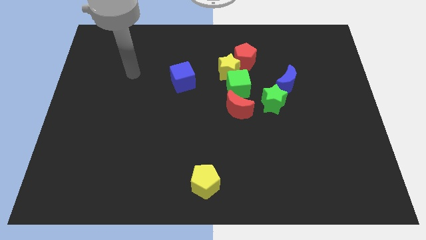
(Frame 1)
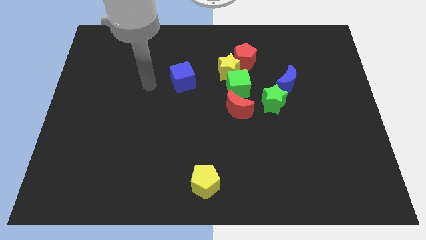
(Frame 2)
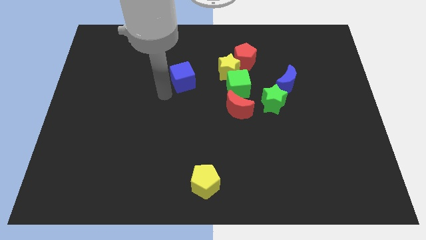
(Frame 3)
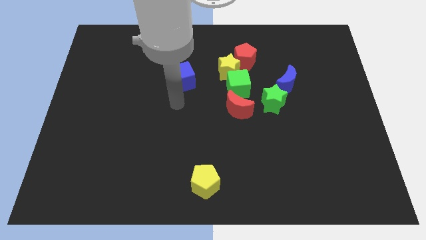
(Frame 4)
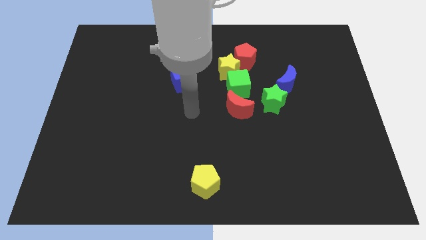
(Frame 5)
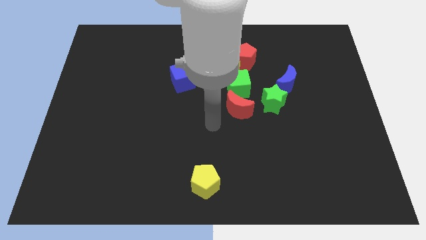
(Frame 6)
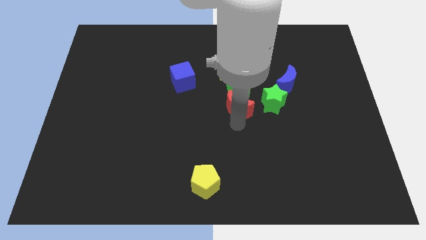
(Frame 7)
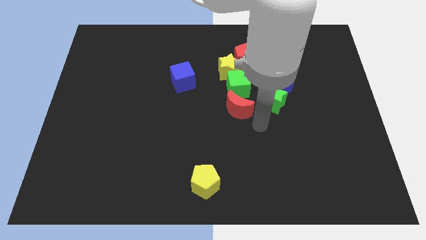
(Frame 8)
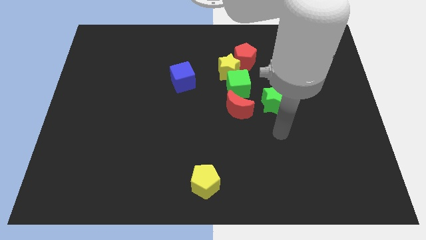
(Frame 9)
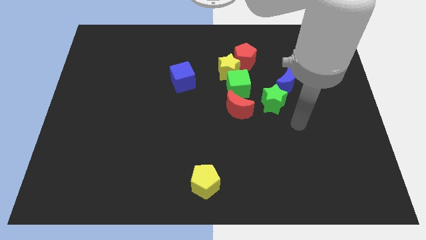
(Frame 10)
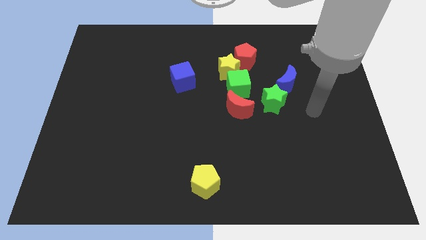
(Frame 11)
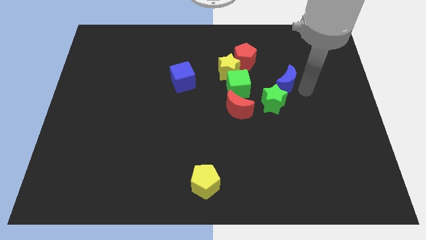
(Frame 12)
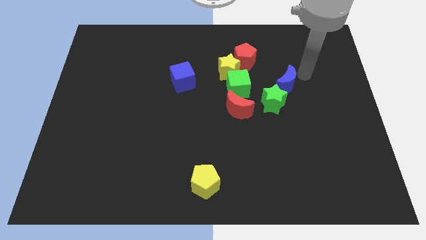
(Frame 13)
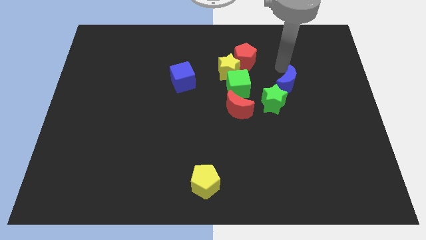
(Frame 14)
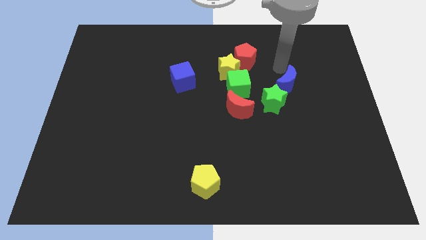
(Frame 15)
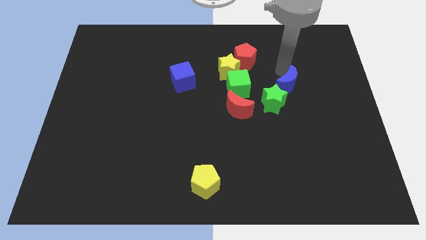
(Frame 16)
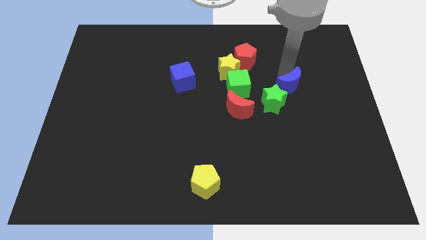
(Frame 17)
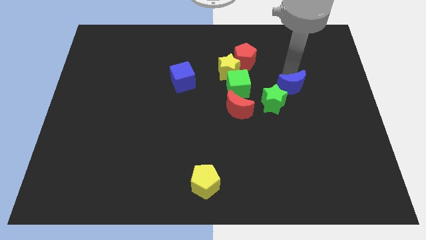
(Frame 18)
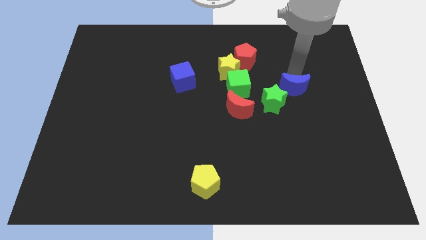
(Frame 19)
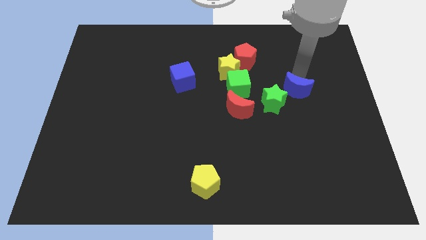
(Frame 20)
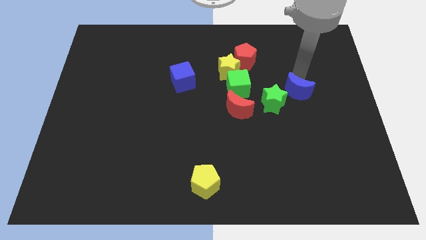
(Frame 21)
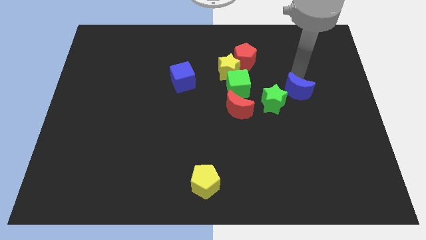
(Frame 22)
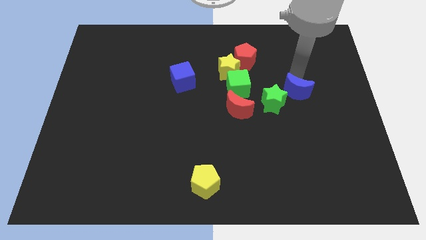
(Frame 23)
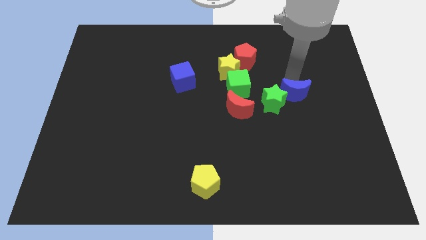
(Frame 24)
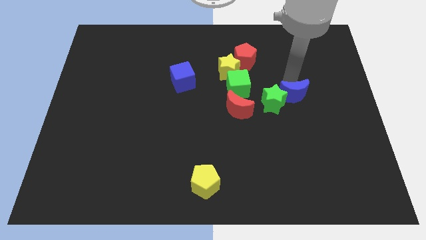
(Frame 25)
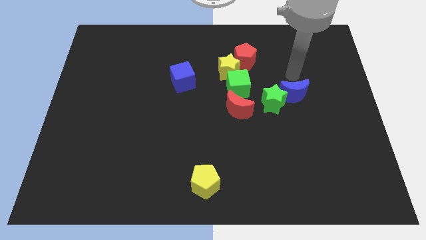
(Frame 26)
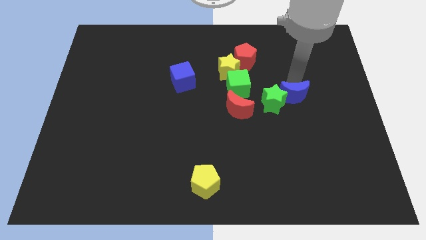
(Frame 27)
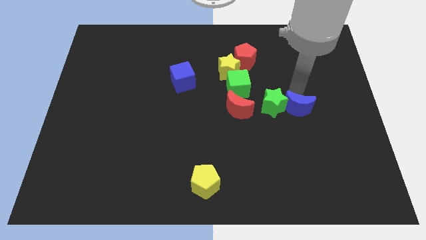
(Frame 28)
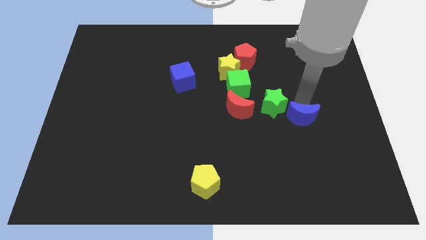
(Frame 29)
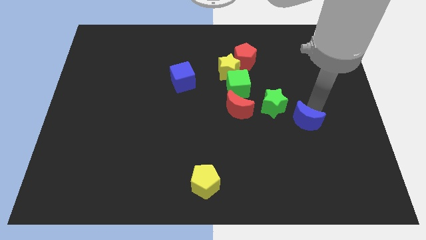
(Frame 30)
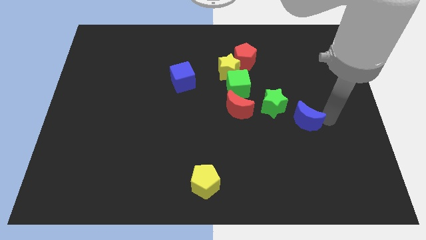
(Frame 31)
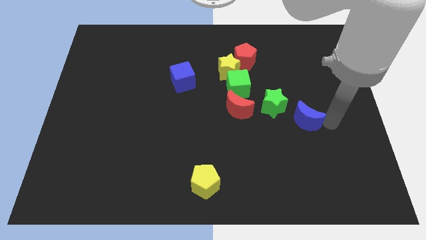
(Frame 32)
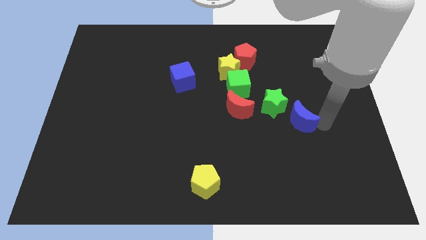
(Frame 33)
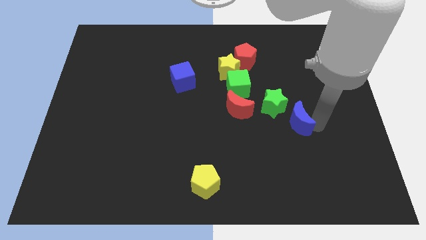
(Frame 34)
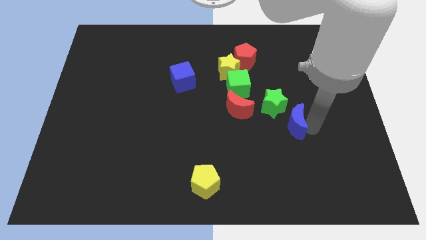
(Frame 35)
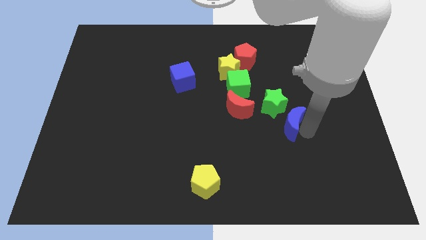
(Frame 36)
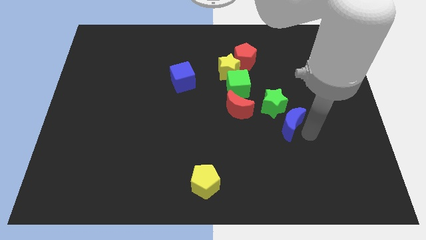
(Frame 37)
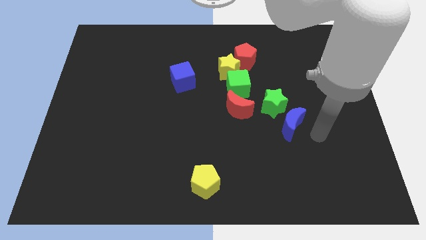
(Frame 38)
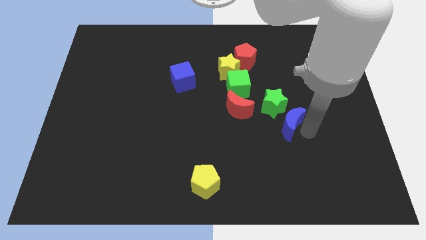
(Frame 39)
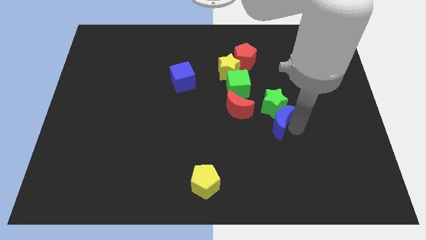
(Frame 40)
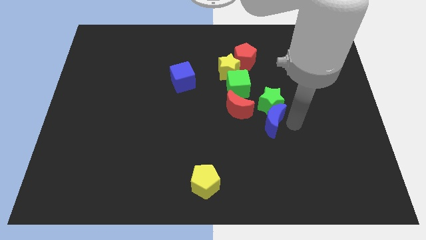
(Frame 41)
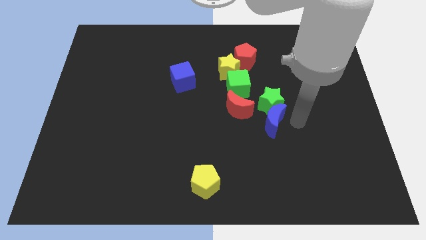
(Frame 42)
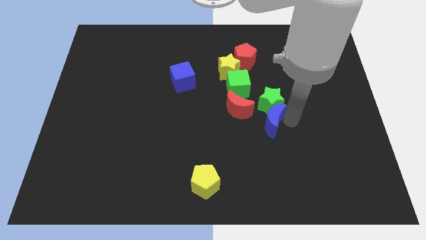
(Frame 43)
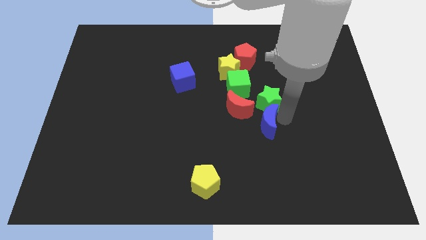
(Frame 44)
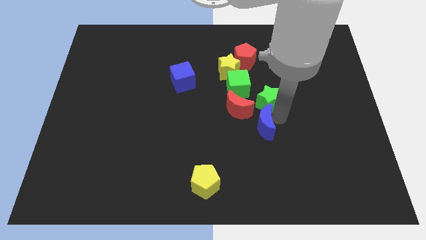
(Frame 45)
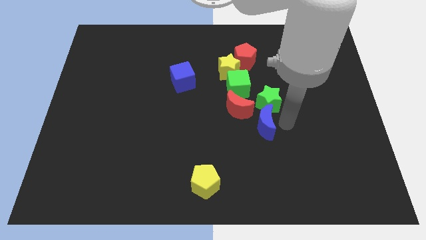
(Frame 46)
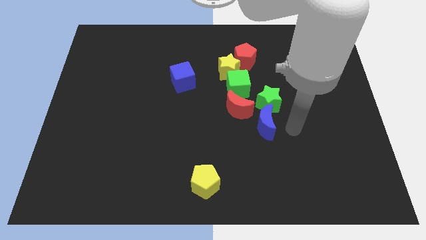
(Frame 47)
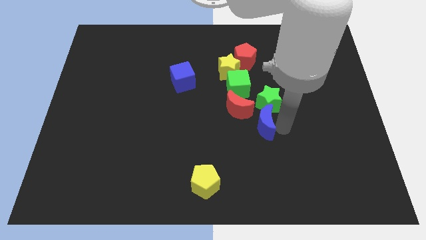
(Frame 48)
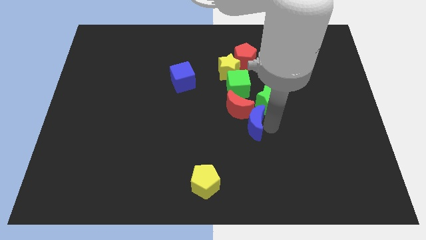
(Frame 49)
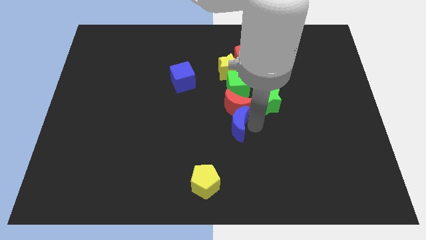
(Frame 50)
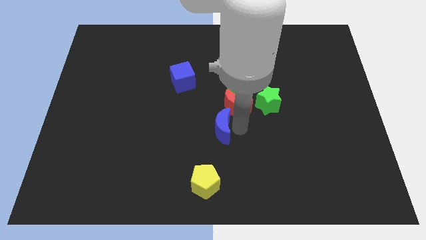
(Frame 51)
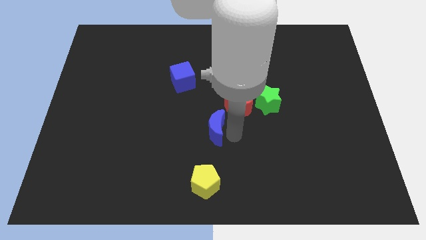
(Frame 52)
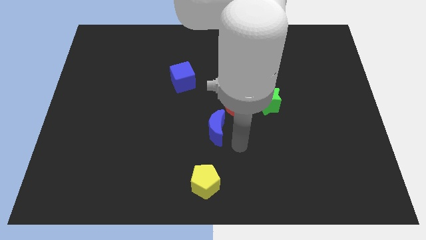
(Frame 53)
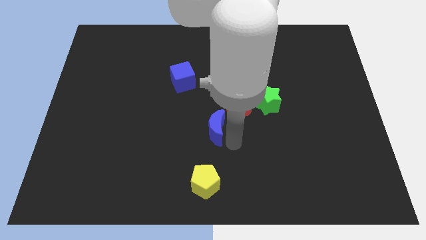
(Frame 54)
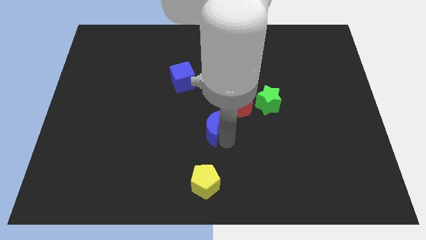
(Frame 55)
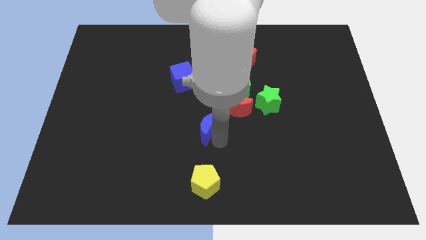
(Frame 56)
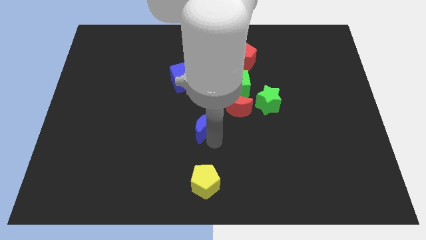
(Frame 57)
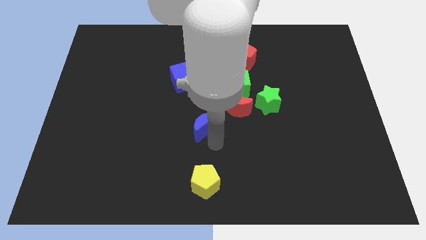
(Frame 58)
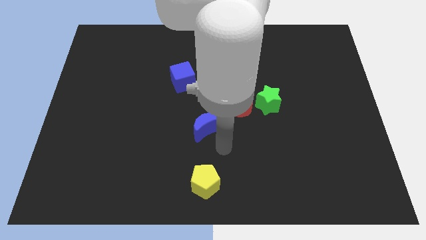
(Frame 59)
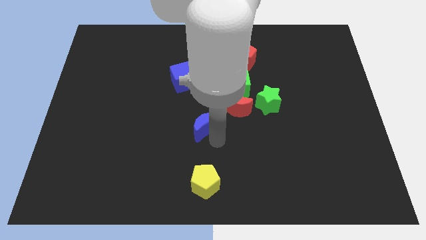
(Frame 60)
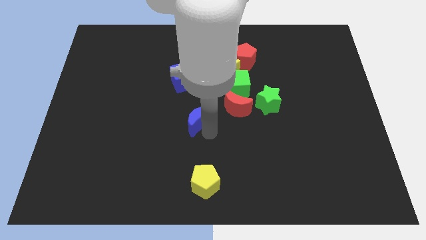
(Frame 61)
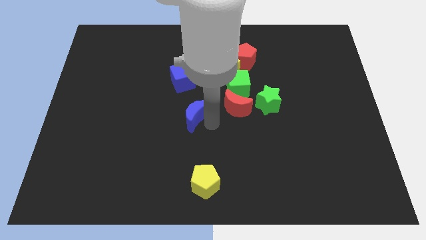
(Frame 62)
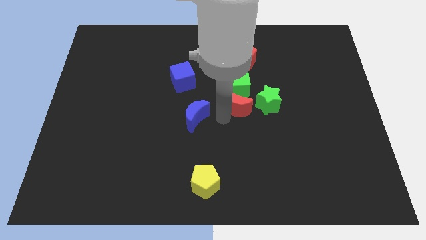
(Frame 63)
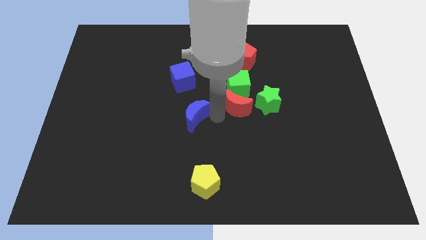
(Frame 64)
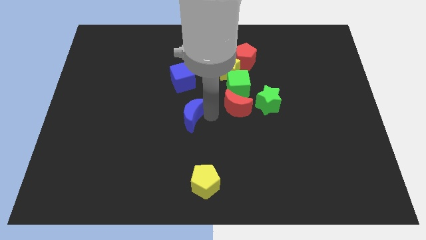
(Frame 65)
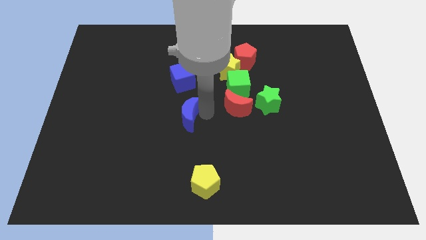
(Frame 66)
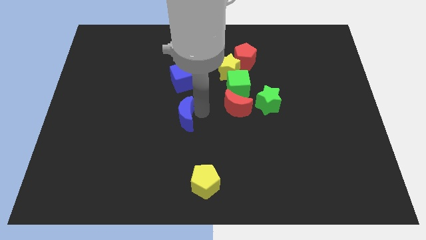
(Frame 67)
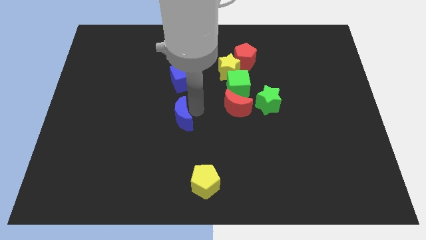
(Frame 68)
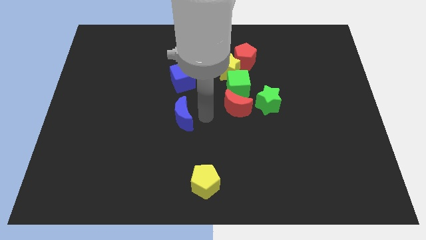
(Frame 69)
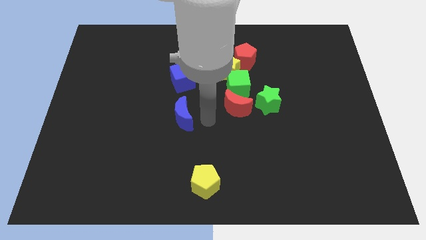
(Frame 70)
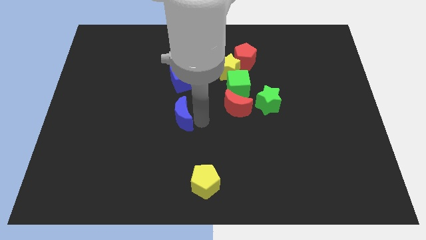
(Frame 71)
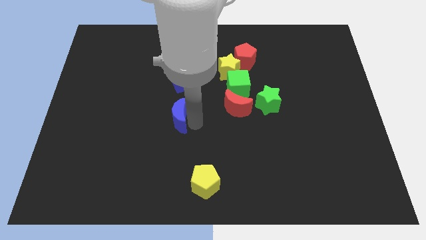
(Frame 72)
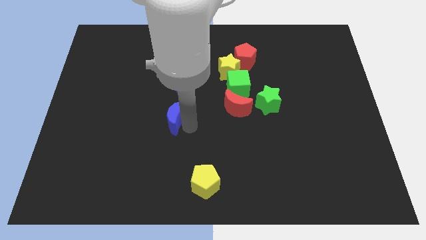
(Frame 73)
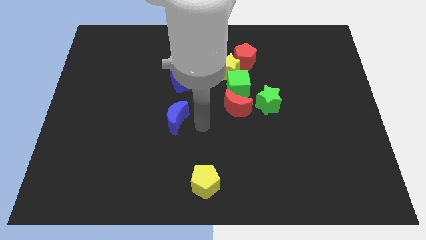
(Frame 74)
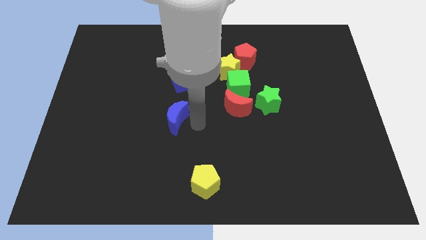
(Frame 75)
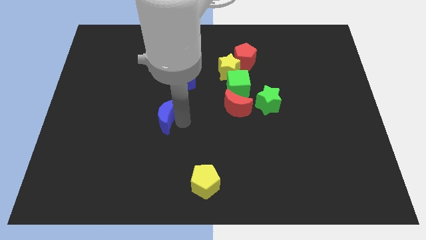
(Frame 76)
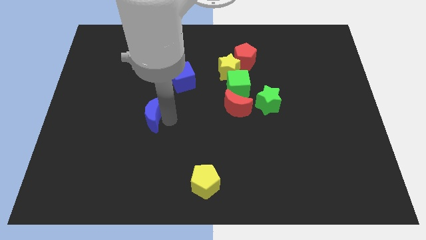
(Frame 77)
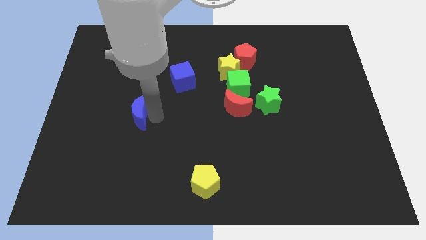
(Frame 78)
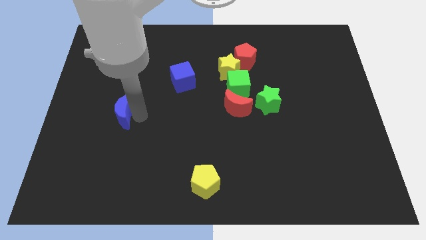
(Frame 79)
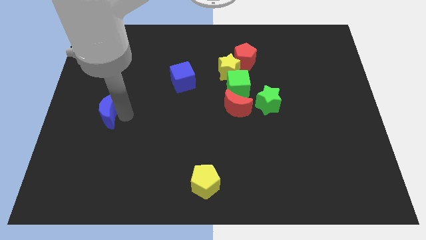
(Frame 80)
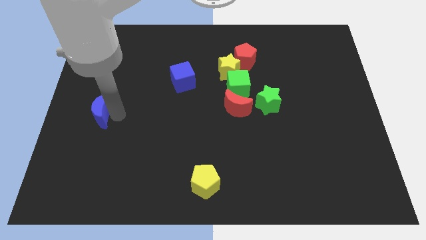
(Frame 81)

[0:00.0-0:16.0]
put the blue moon to the center left
